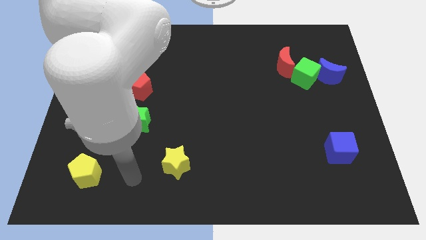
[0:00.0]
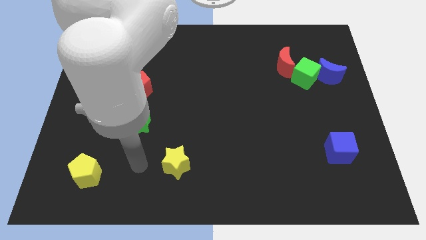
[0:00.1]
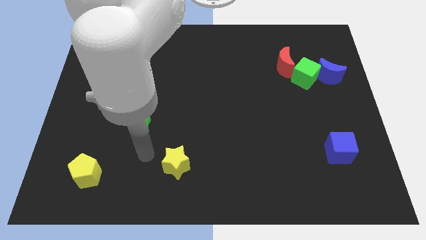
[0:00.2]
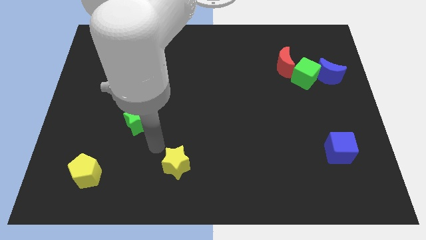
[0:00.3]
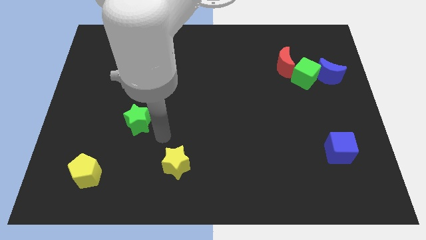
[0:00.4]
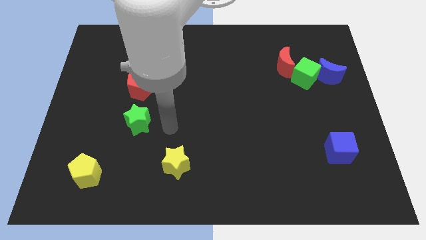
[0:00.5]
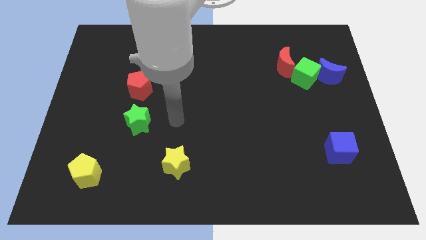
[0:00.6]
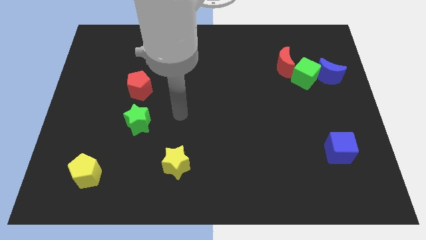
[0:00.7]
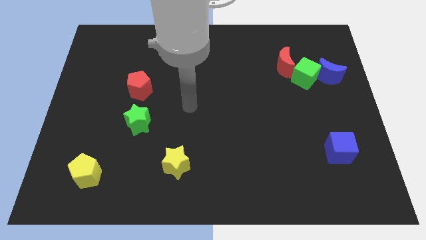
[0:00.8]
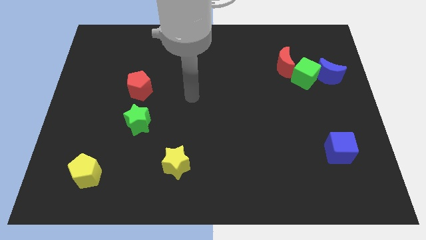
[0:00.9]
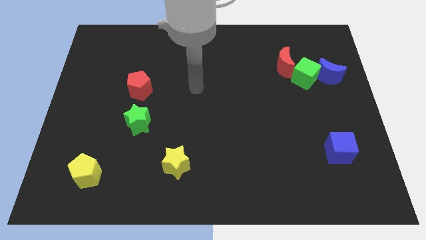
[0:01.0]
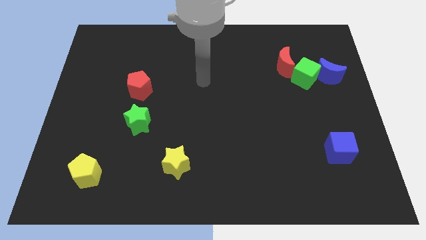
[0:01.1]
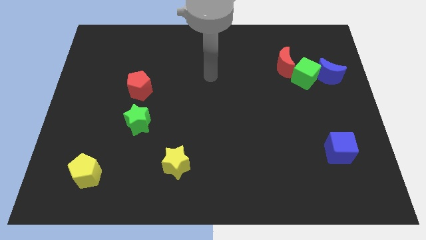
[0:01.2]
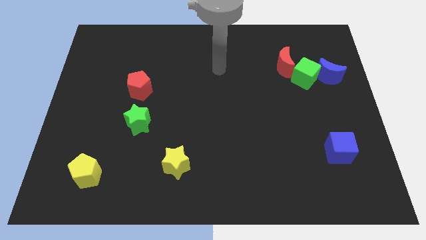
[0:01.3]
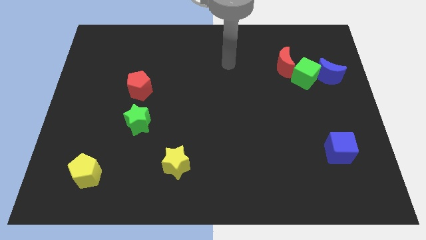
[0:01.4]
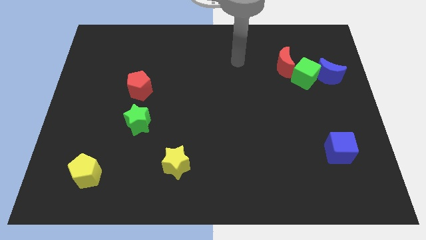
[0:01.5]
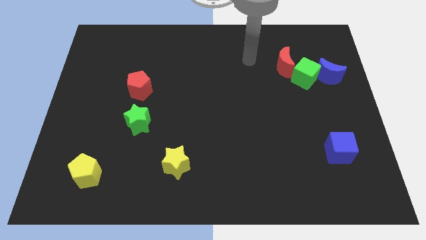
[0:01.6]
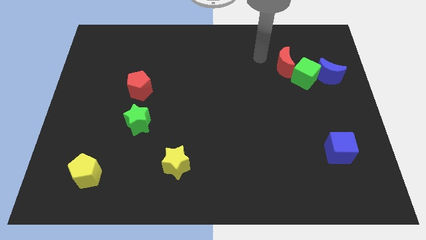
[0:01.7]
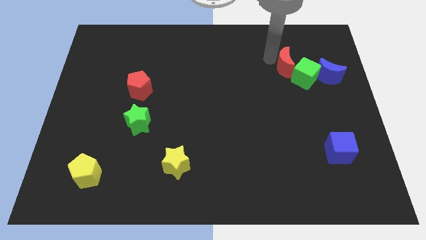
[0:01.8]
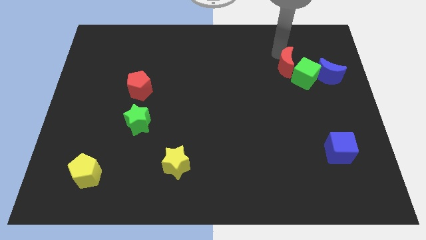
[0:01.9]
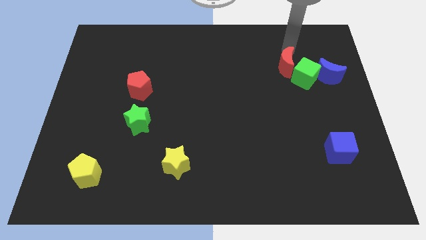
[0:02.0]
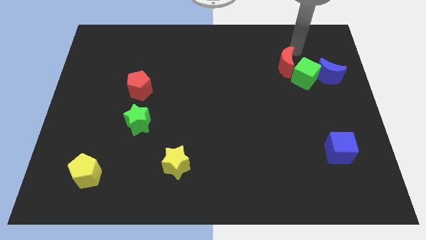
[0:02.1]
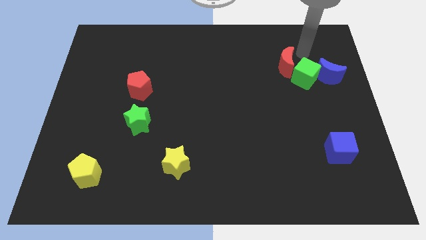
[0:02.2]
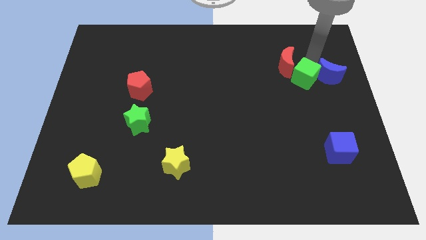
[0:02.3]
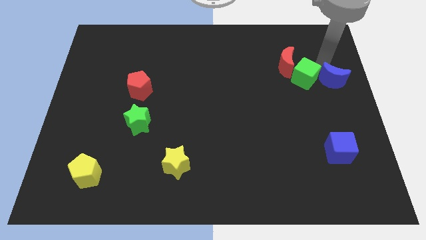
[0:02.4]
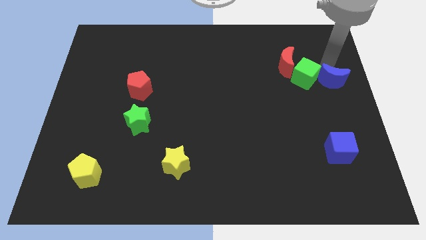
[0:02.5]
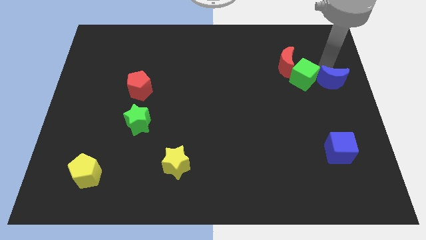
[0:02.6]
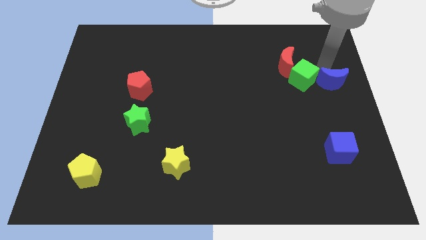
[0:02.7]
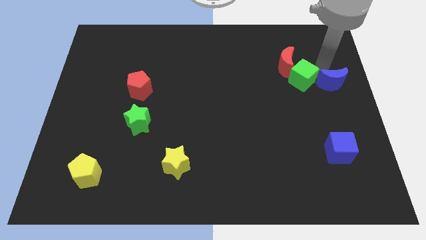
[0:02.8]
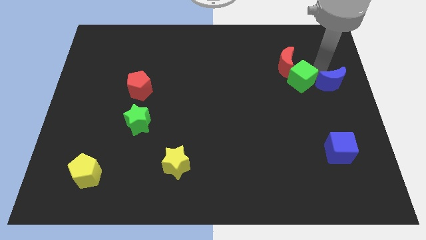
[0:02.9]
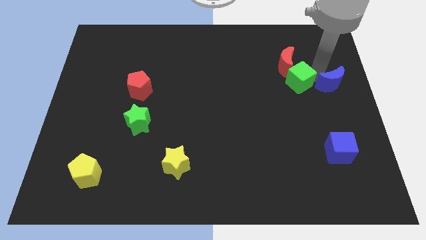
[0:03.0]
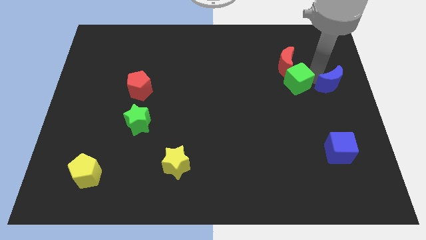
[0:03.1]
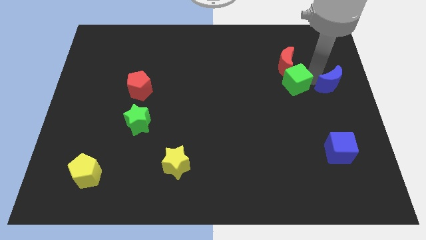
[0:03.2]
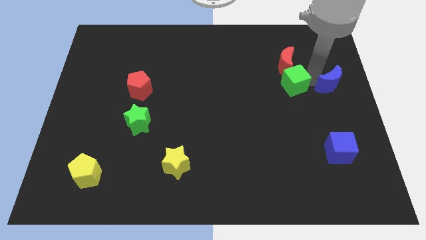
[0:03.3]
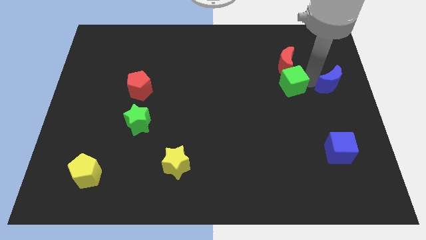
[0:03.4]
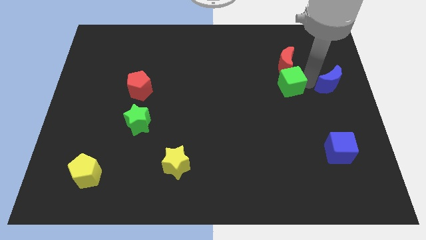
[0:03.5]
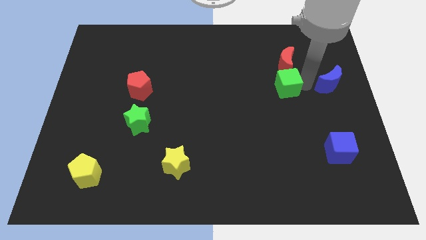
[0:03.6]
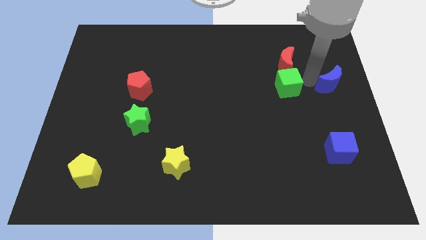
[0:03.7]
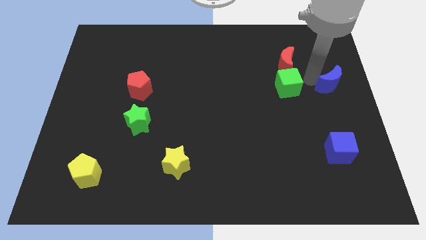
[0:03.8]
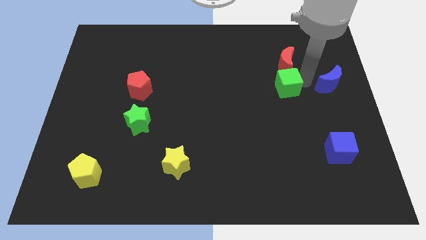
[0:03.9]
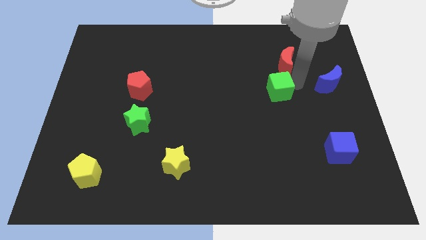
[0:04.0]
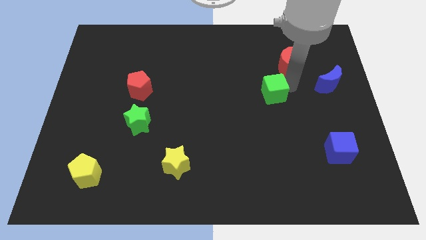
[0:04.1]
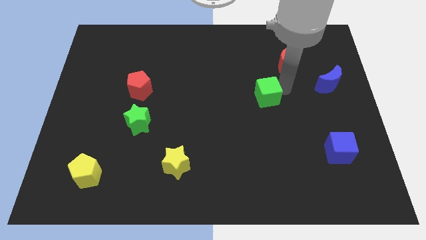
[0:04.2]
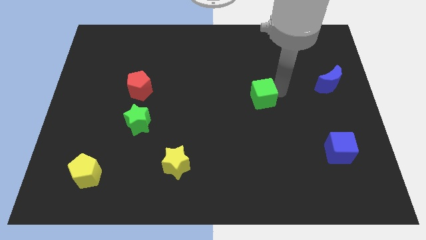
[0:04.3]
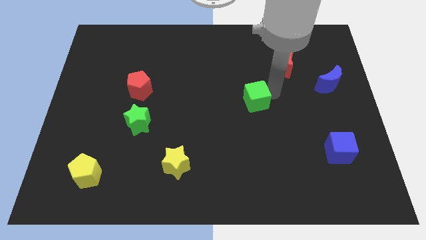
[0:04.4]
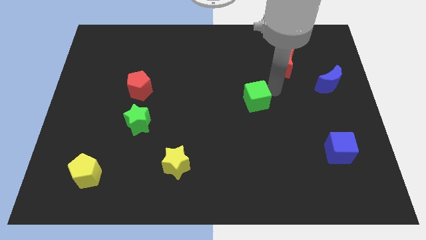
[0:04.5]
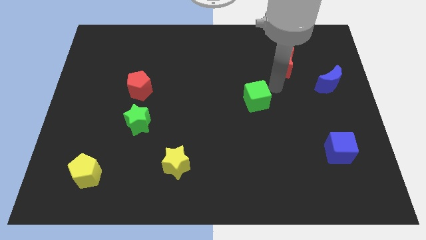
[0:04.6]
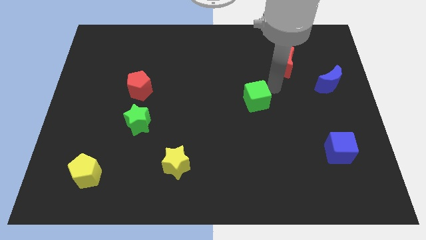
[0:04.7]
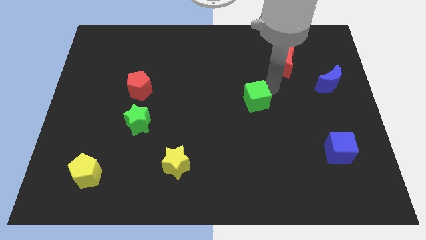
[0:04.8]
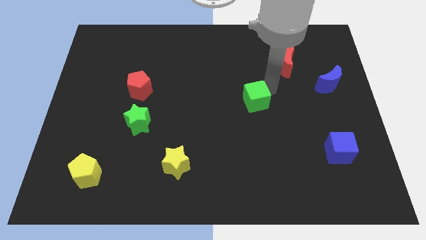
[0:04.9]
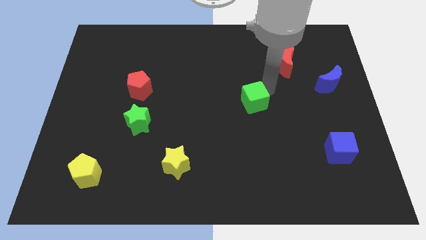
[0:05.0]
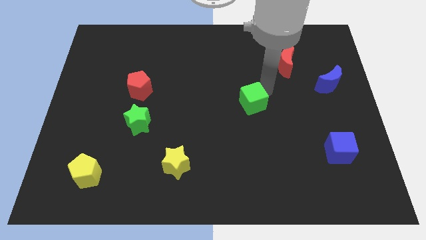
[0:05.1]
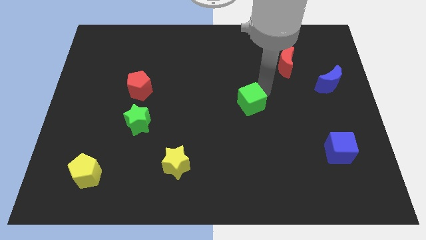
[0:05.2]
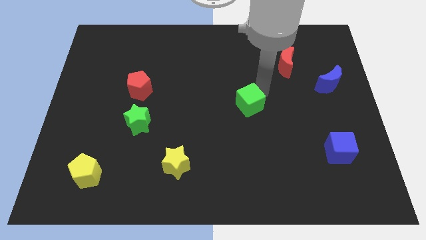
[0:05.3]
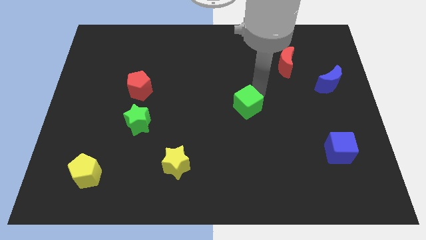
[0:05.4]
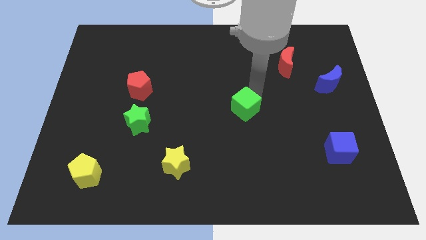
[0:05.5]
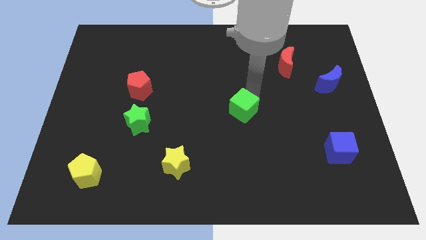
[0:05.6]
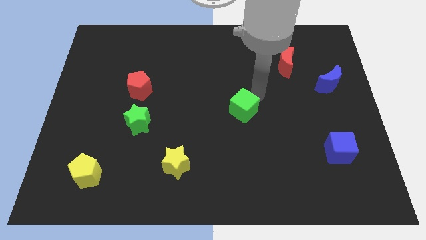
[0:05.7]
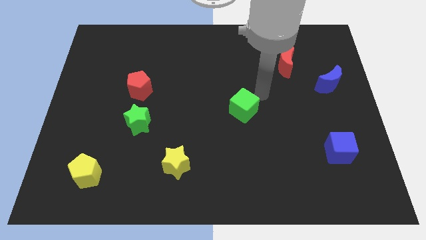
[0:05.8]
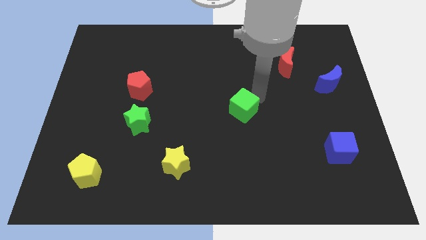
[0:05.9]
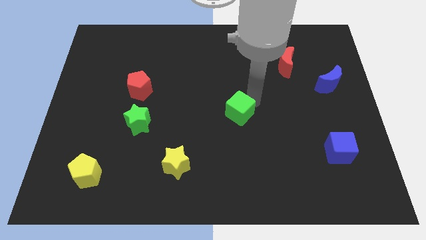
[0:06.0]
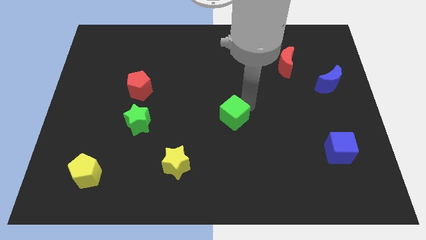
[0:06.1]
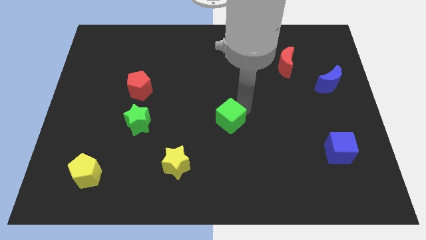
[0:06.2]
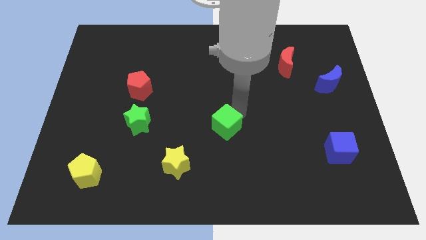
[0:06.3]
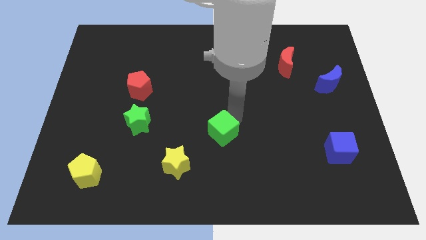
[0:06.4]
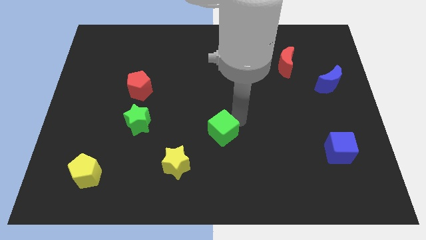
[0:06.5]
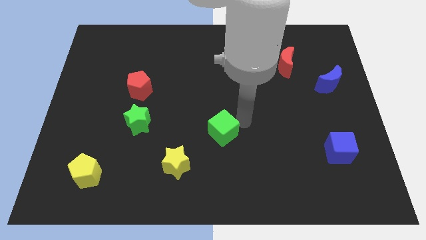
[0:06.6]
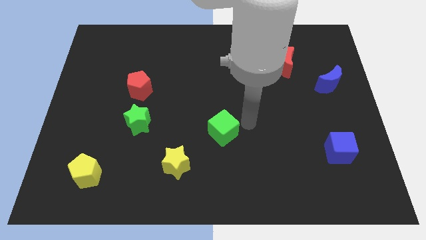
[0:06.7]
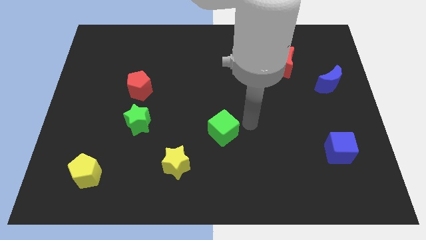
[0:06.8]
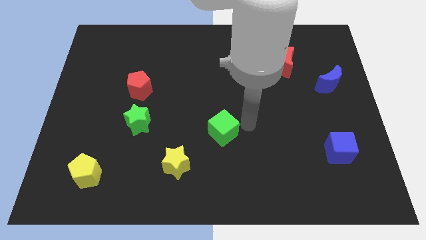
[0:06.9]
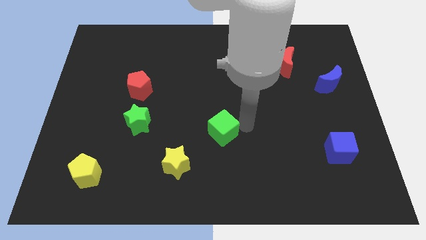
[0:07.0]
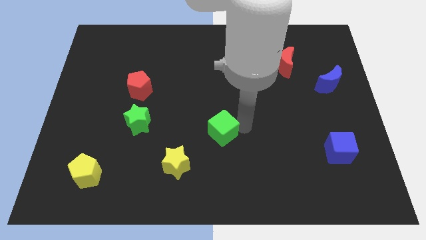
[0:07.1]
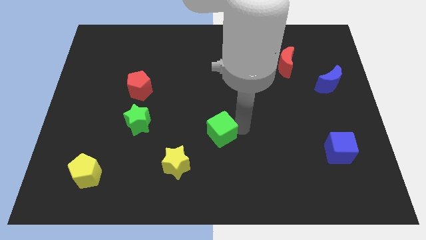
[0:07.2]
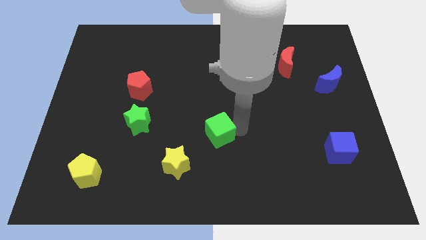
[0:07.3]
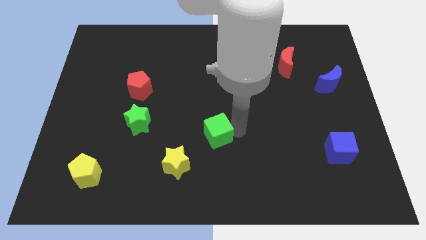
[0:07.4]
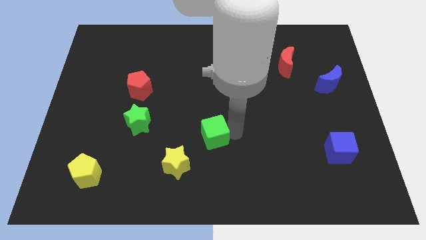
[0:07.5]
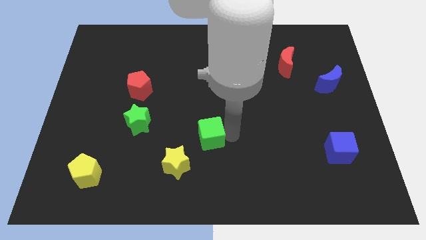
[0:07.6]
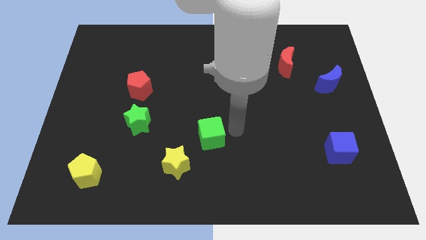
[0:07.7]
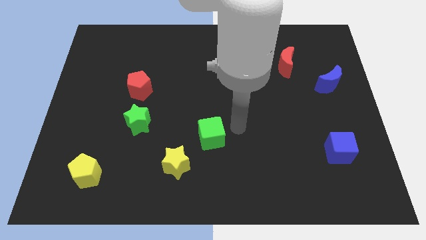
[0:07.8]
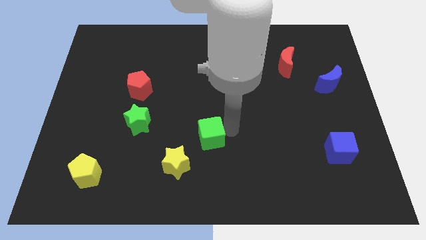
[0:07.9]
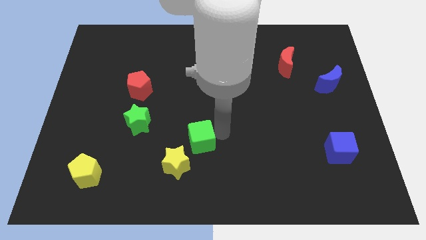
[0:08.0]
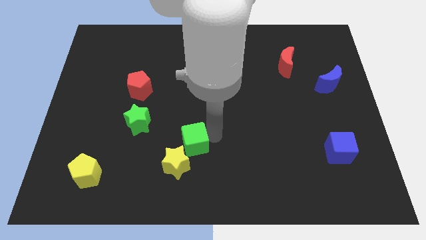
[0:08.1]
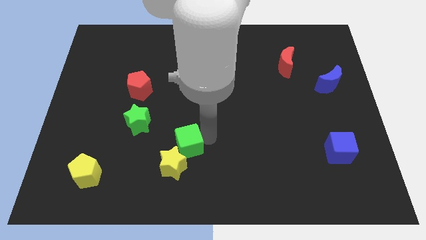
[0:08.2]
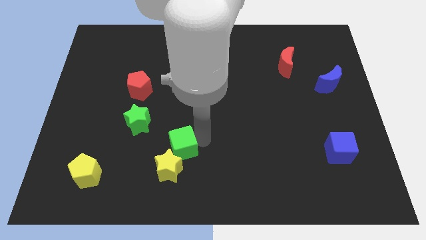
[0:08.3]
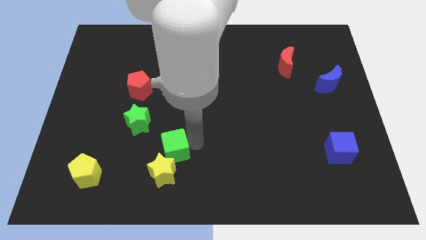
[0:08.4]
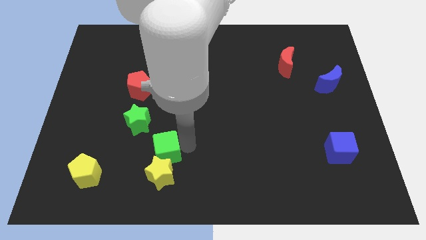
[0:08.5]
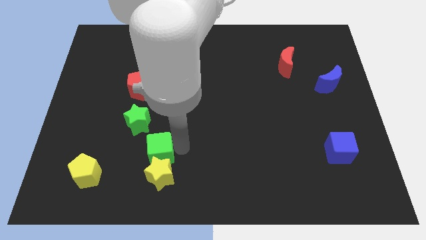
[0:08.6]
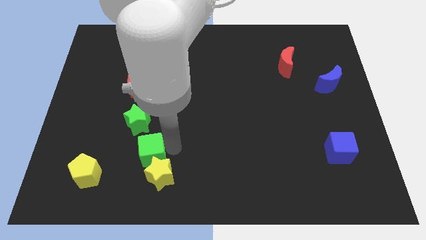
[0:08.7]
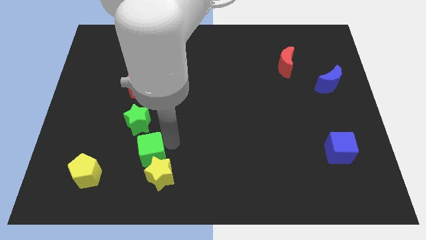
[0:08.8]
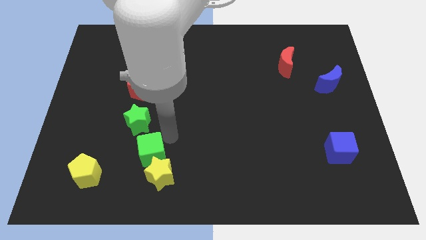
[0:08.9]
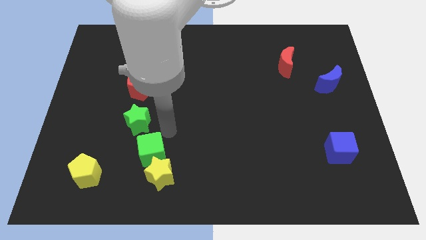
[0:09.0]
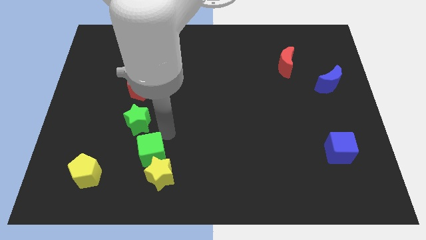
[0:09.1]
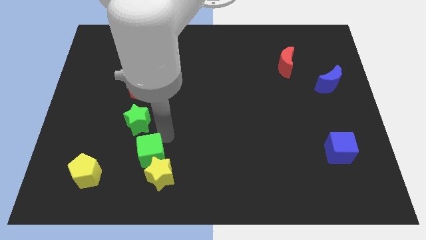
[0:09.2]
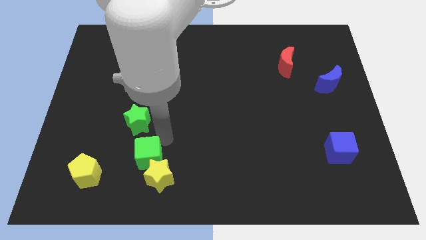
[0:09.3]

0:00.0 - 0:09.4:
put the green cube to the right of the yellow pentagon
